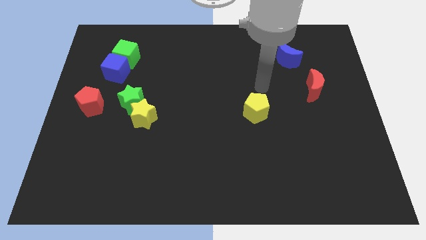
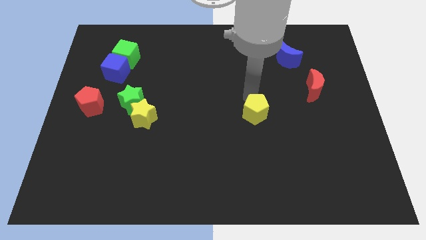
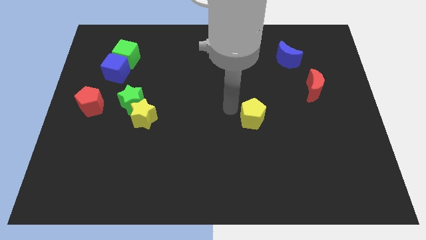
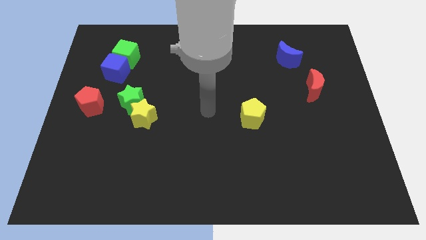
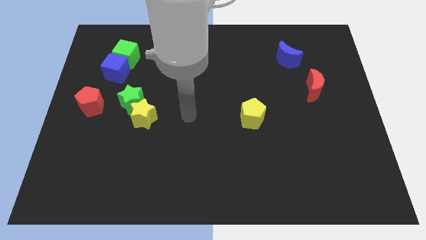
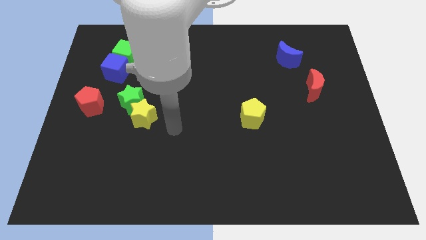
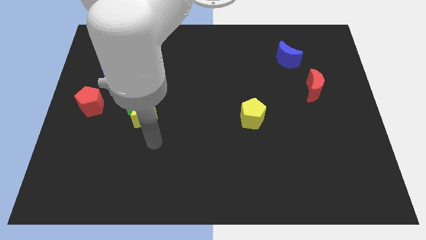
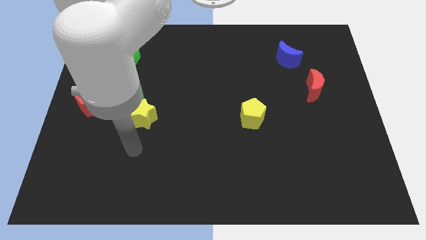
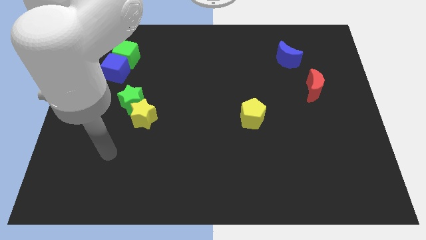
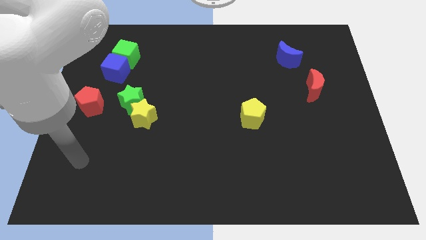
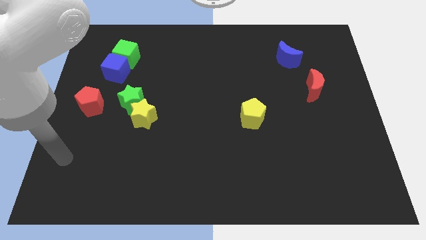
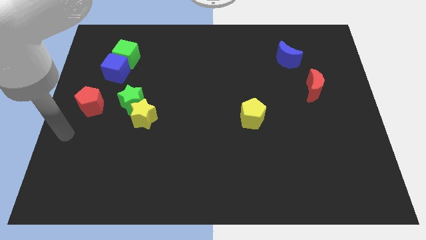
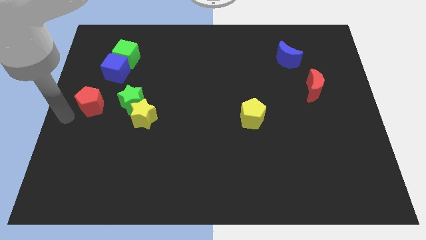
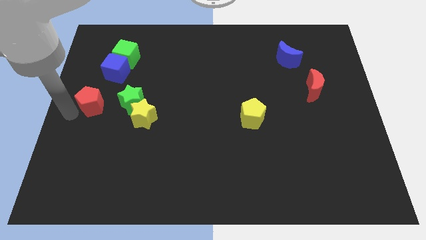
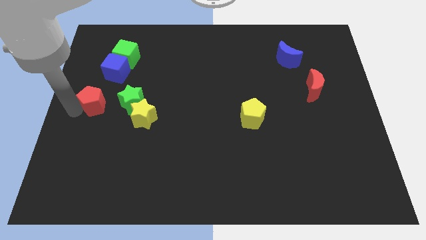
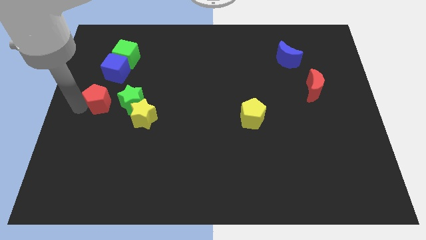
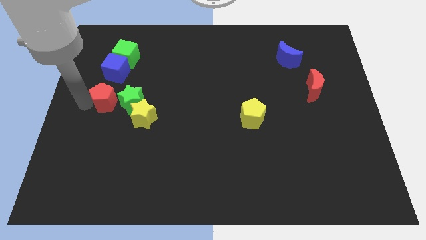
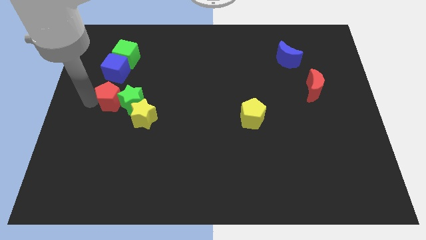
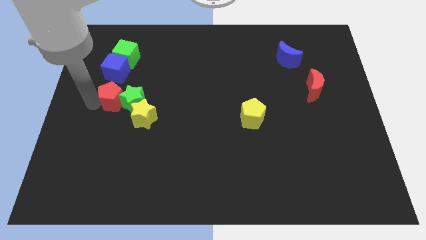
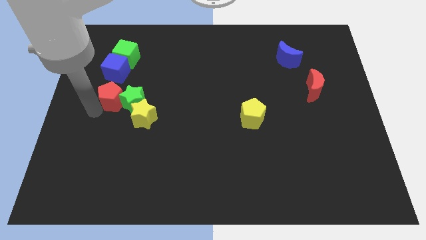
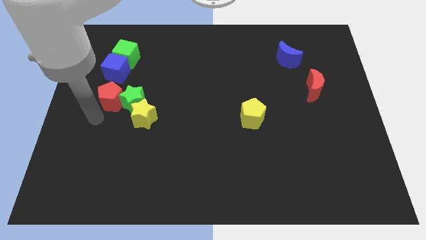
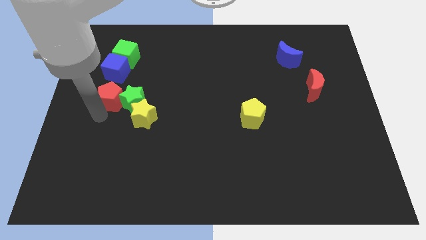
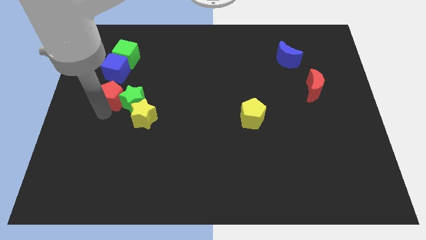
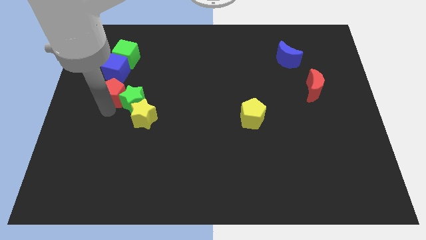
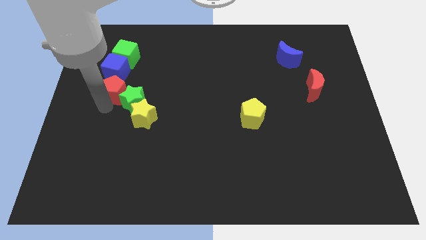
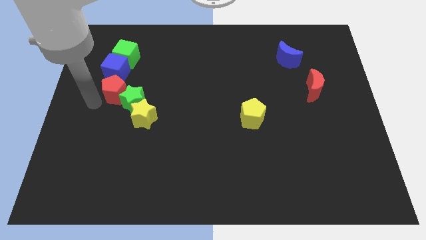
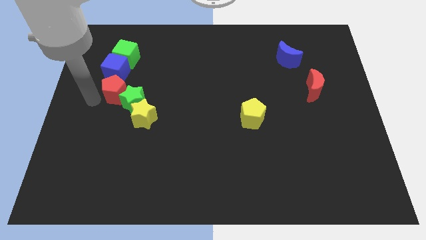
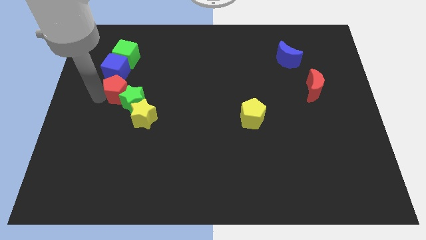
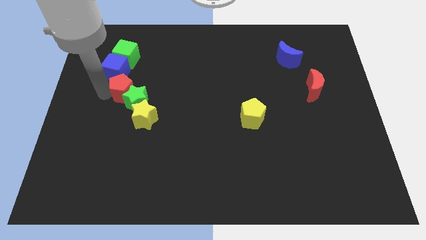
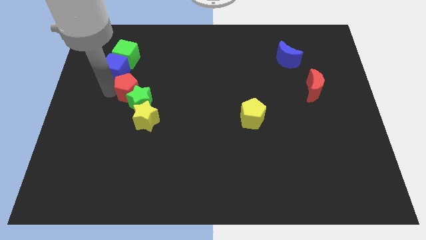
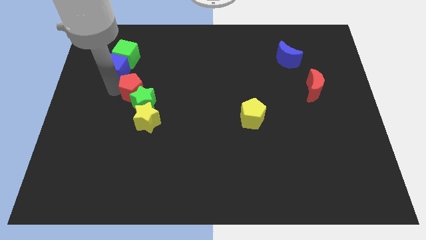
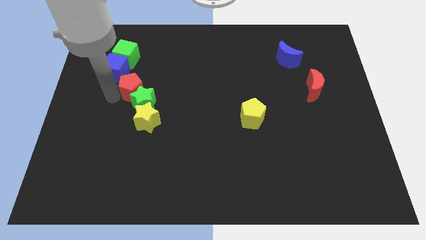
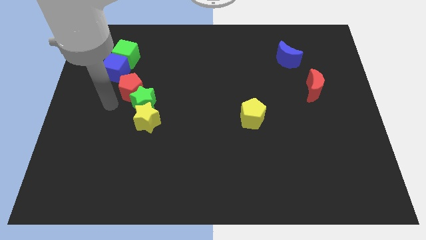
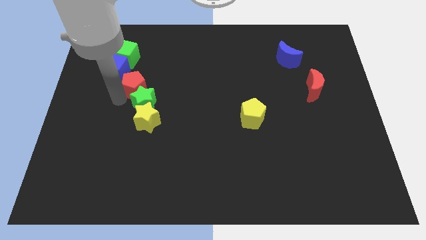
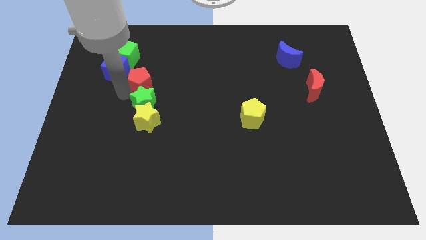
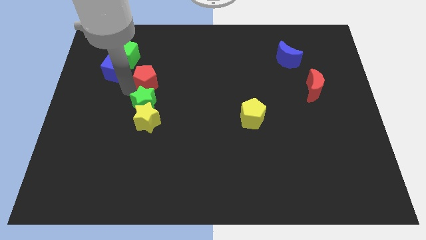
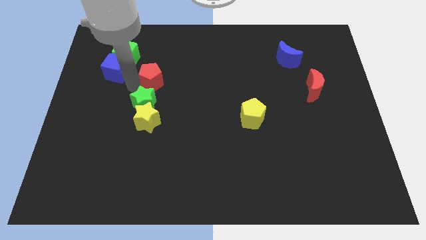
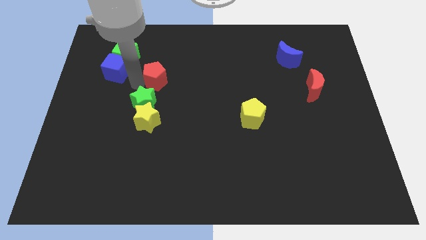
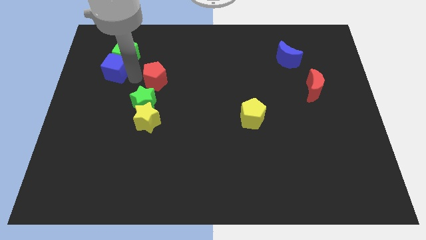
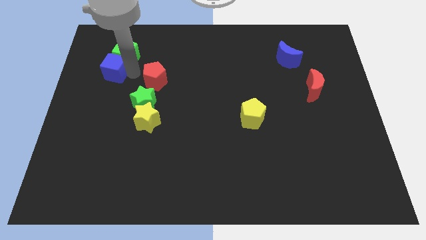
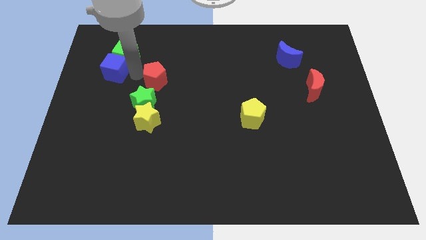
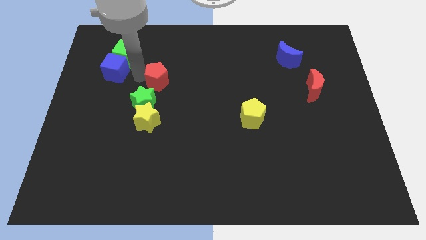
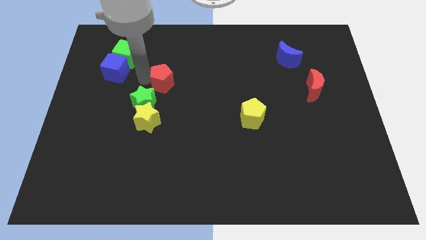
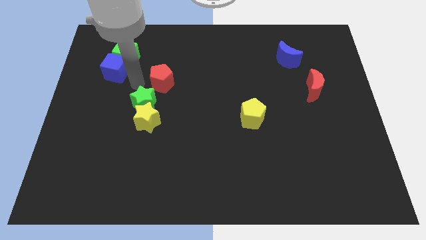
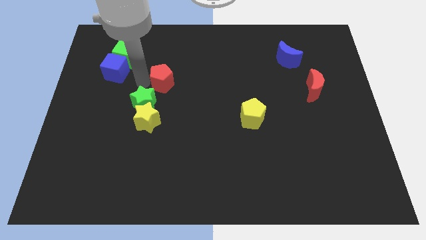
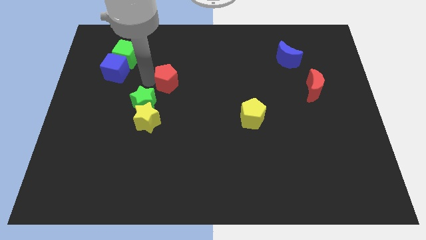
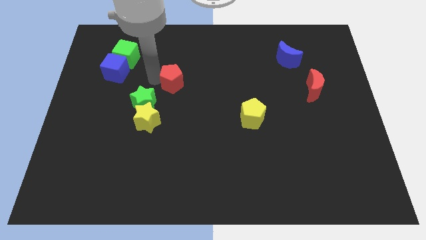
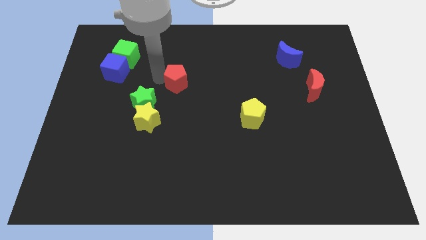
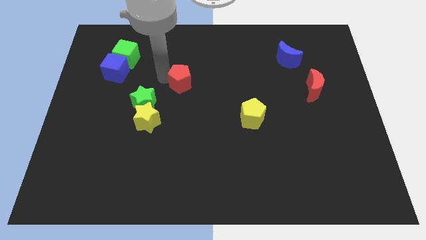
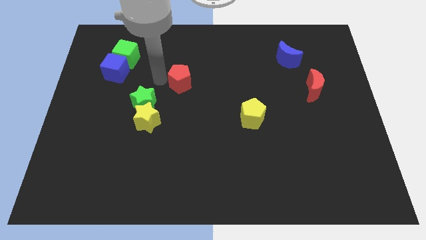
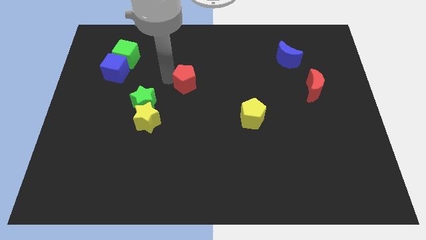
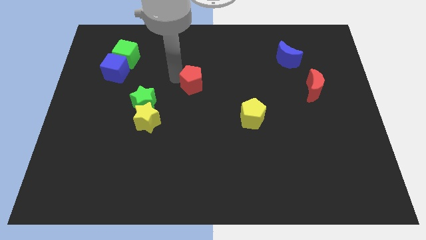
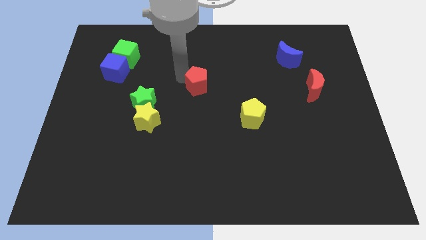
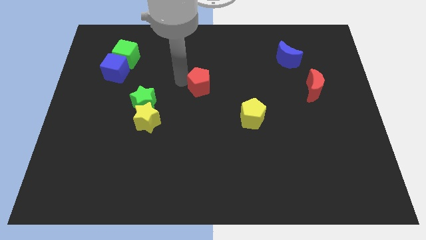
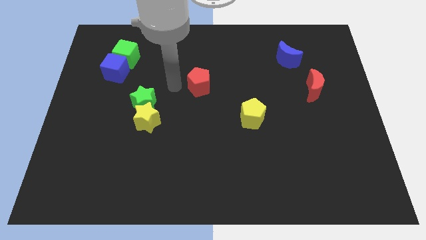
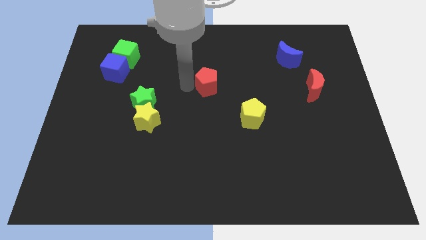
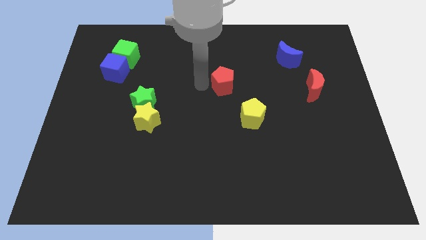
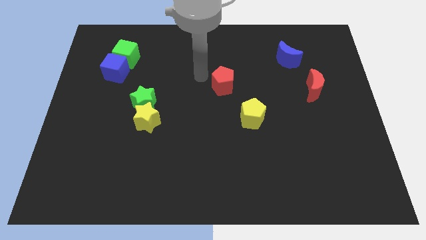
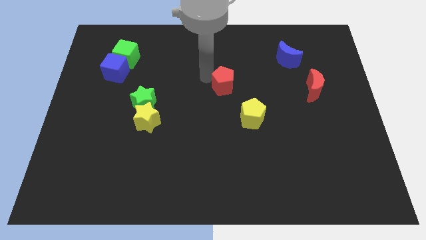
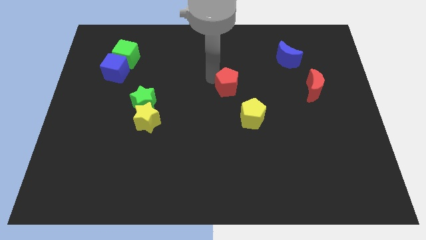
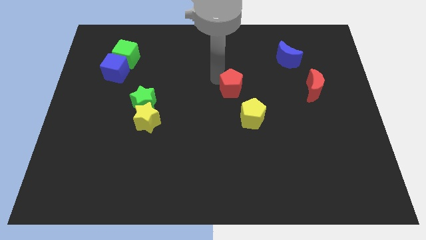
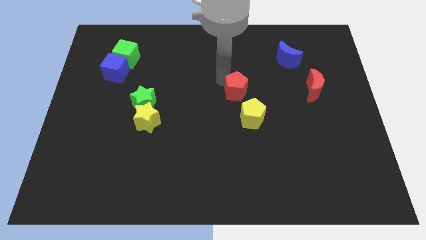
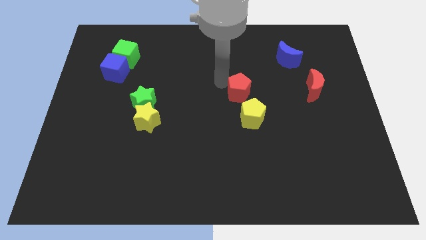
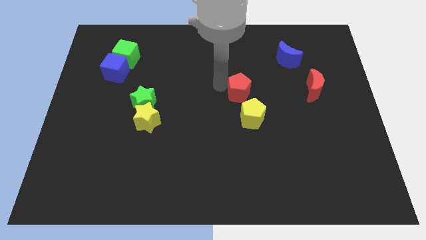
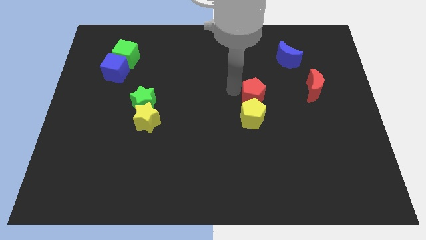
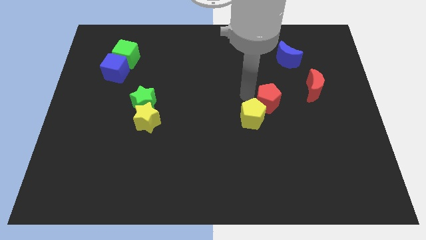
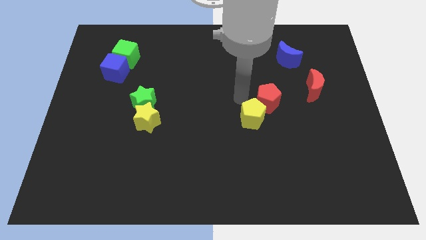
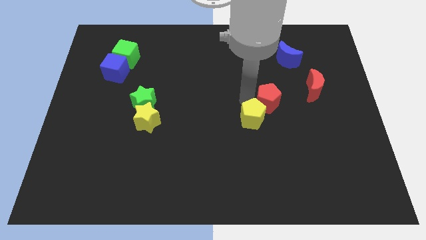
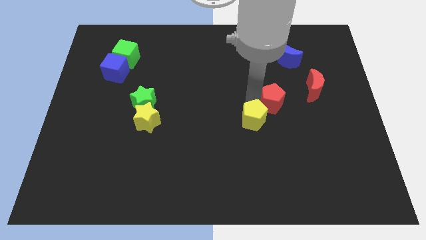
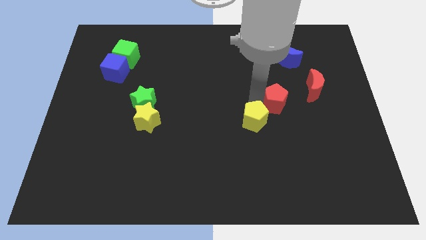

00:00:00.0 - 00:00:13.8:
put the red pentagon to the bottom left of the red moon
